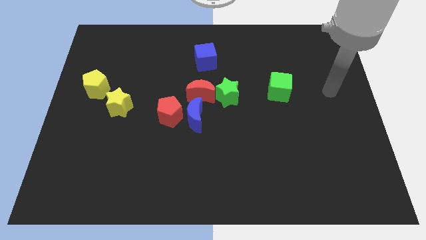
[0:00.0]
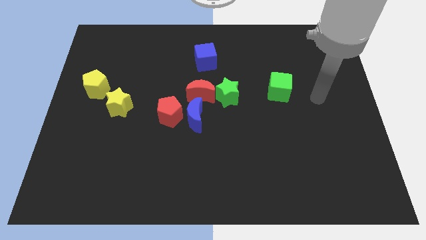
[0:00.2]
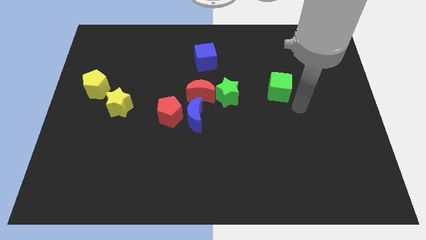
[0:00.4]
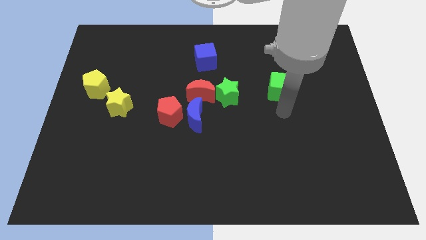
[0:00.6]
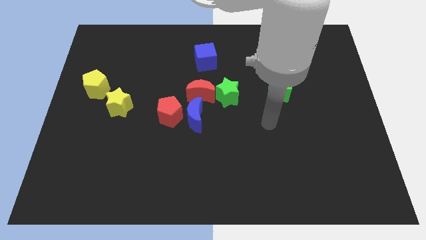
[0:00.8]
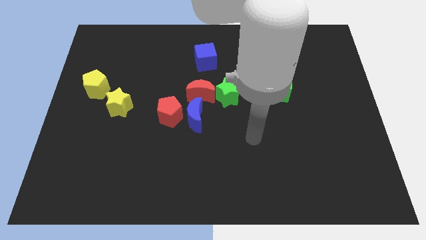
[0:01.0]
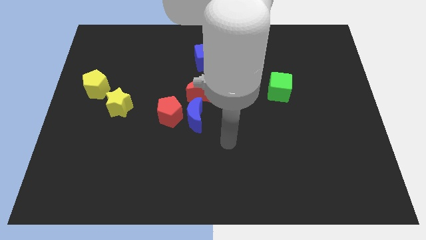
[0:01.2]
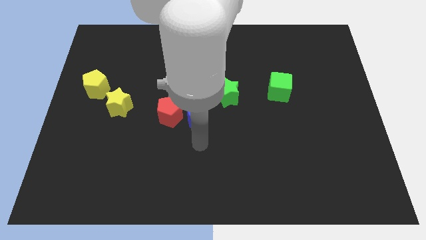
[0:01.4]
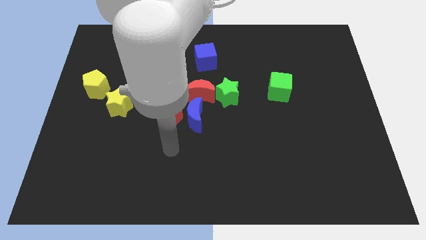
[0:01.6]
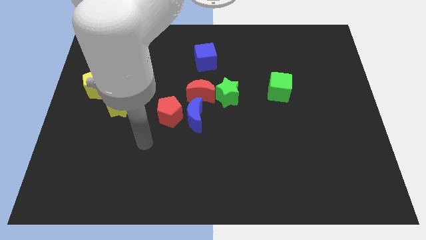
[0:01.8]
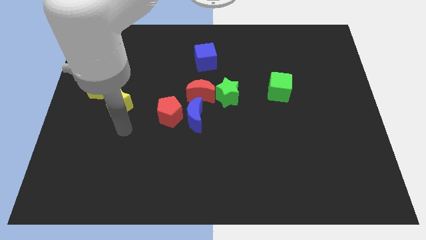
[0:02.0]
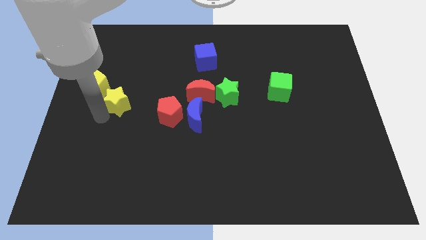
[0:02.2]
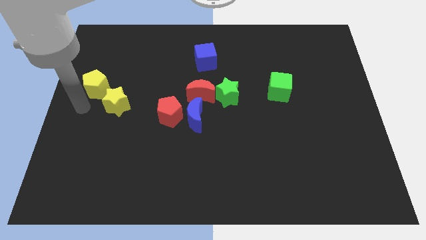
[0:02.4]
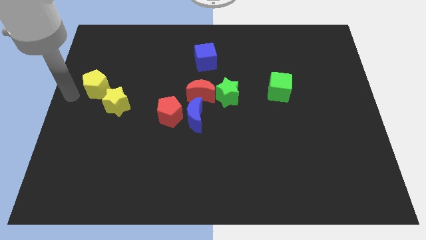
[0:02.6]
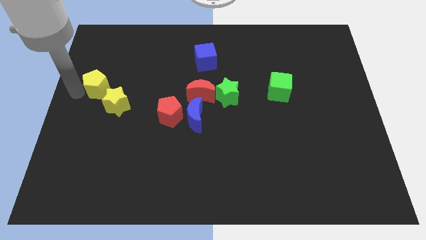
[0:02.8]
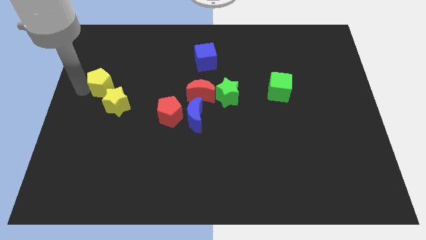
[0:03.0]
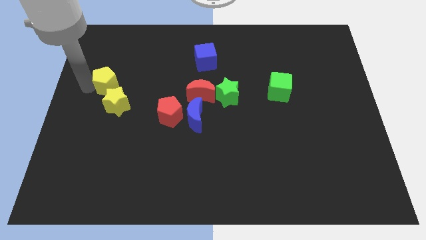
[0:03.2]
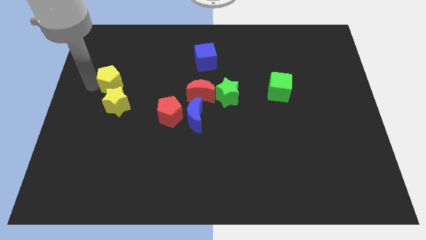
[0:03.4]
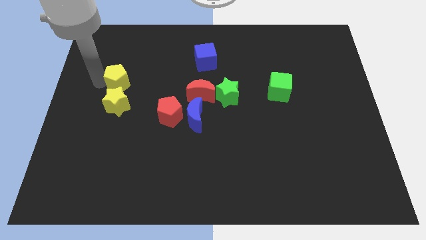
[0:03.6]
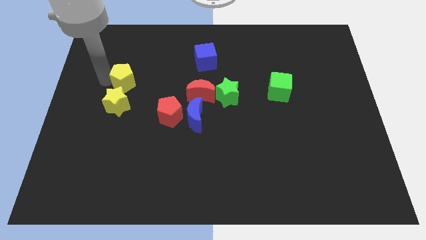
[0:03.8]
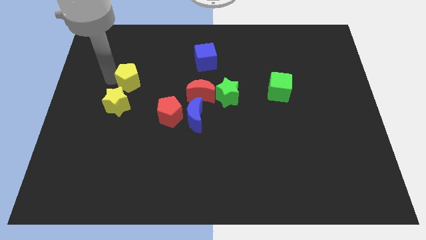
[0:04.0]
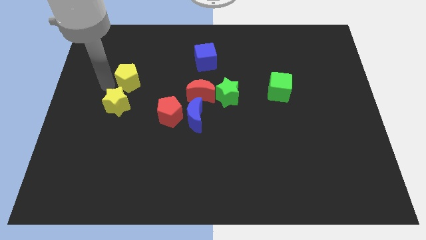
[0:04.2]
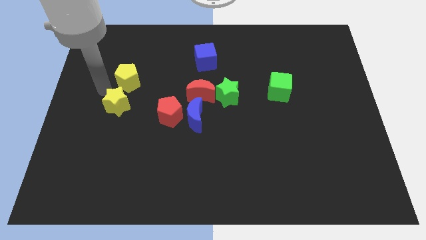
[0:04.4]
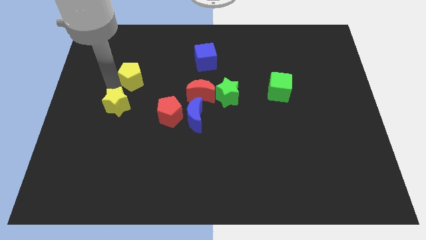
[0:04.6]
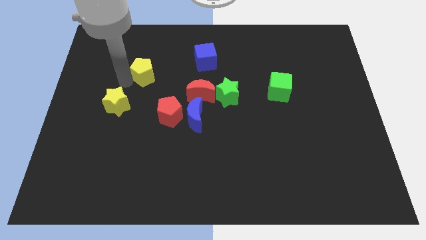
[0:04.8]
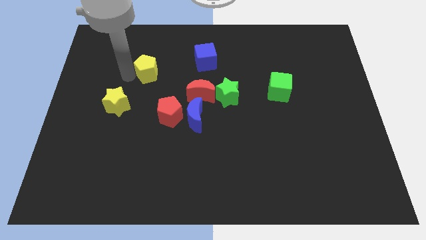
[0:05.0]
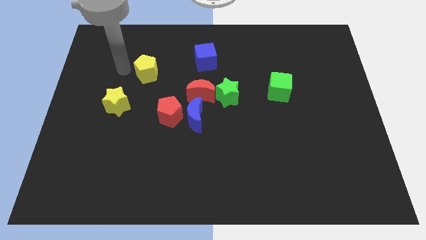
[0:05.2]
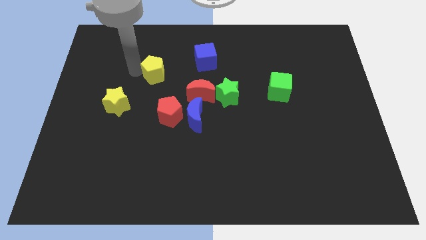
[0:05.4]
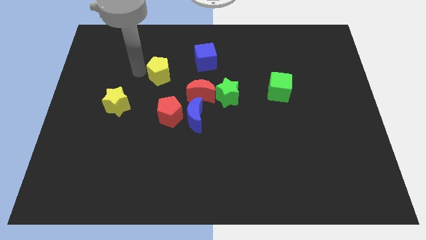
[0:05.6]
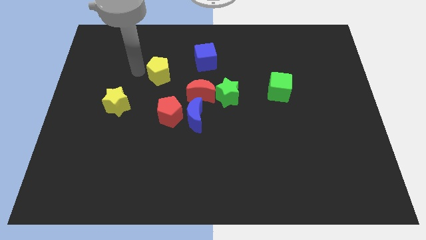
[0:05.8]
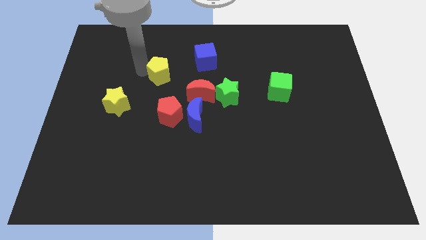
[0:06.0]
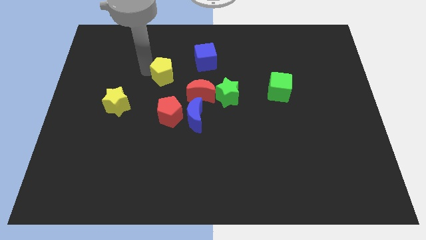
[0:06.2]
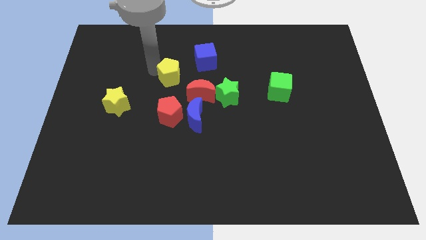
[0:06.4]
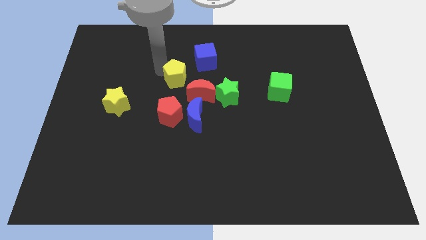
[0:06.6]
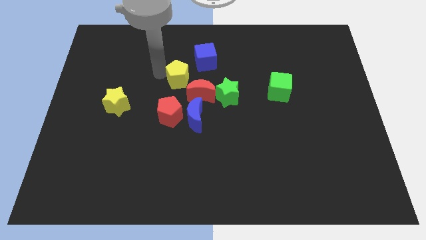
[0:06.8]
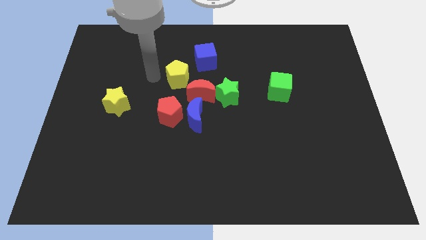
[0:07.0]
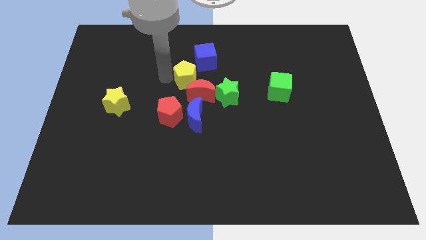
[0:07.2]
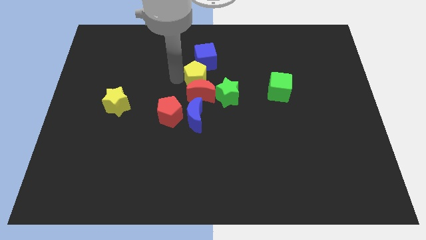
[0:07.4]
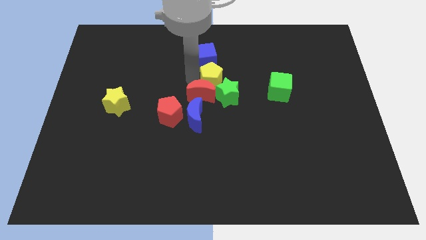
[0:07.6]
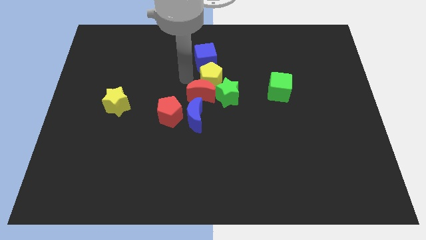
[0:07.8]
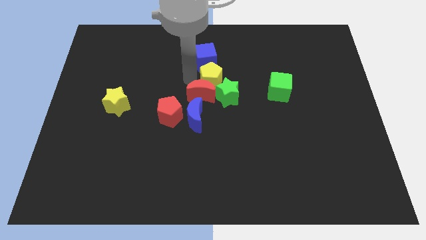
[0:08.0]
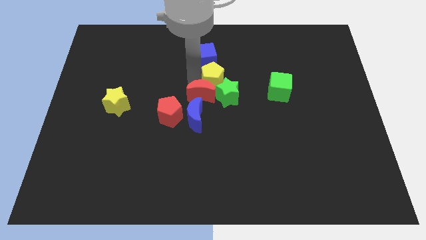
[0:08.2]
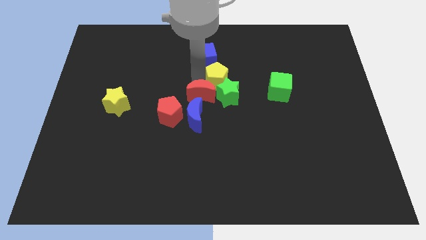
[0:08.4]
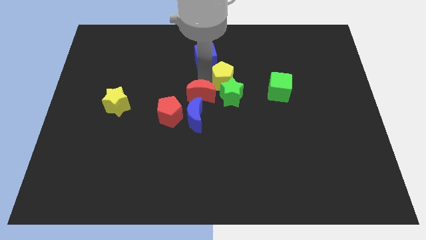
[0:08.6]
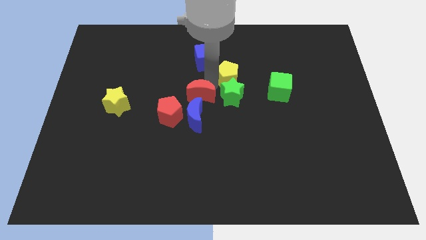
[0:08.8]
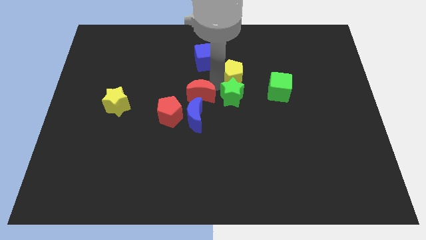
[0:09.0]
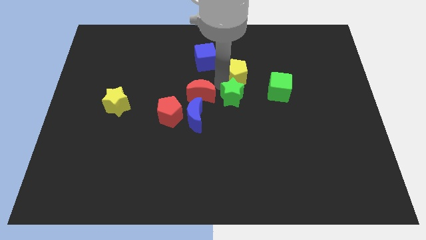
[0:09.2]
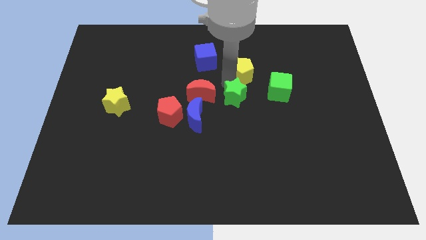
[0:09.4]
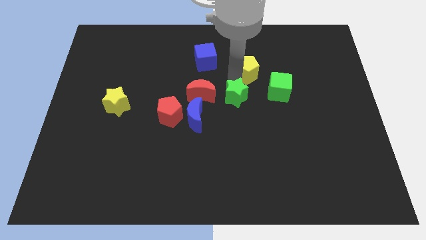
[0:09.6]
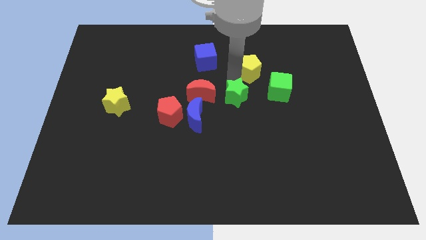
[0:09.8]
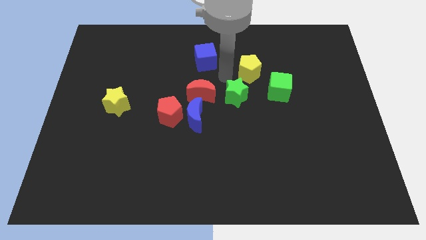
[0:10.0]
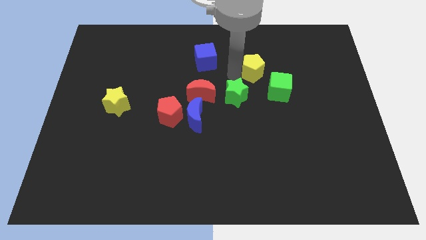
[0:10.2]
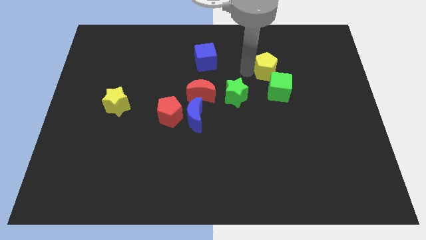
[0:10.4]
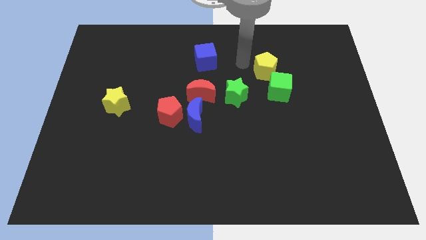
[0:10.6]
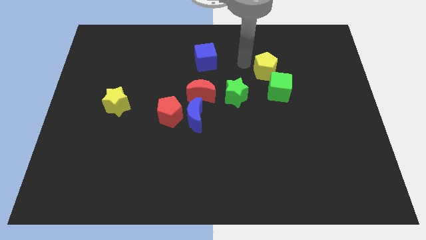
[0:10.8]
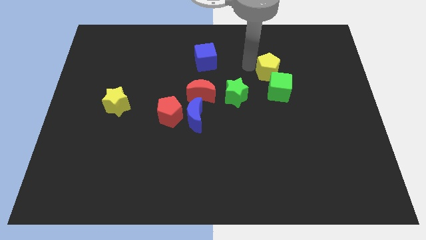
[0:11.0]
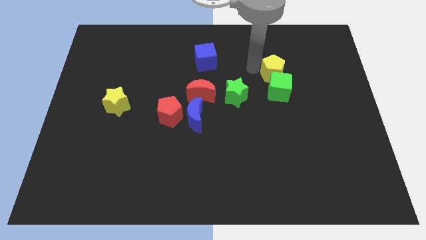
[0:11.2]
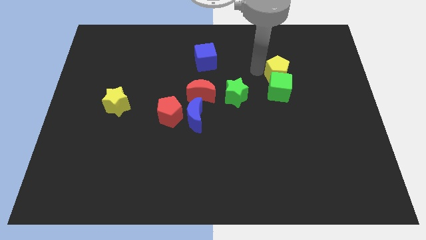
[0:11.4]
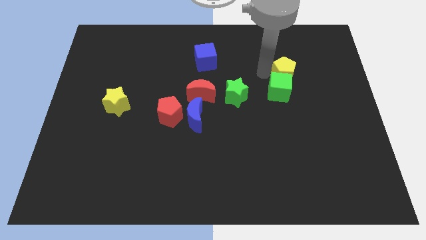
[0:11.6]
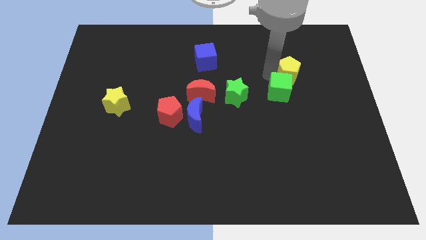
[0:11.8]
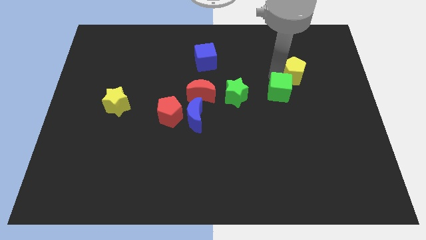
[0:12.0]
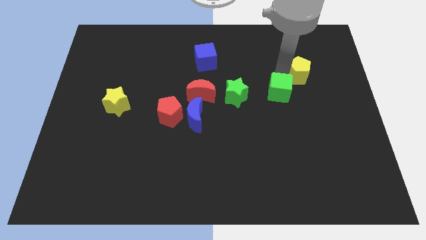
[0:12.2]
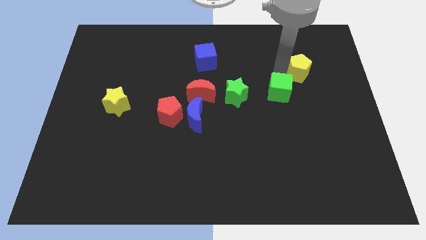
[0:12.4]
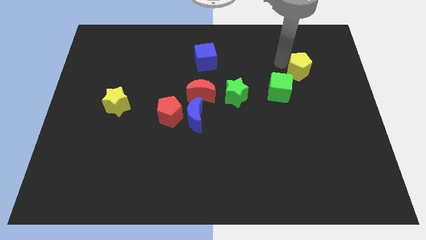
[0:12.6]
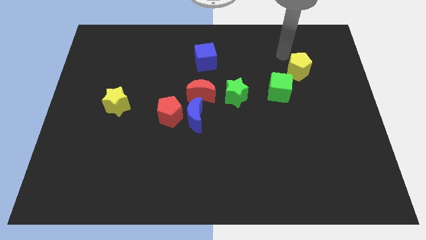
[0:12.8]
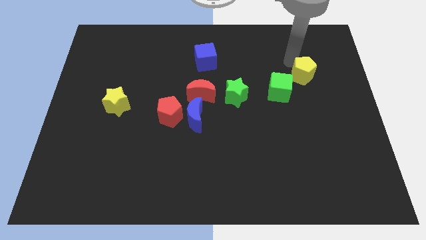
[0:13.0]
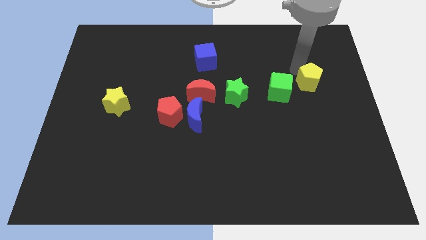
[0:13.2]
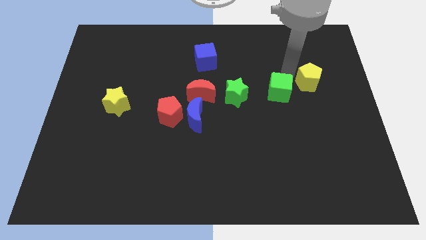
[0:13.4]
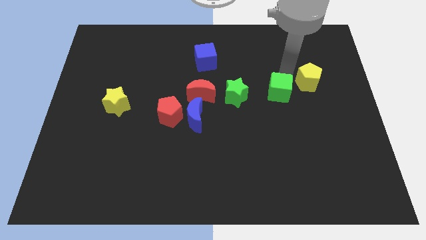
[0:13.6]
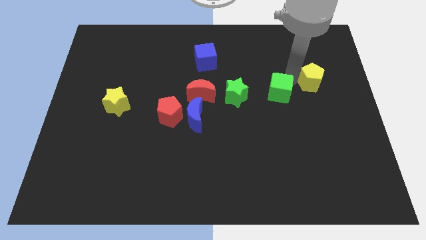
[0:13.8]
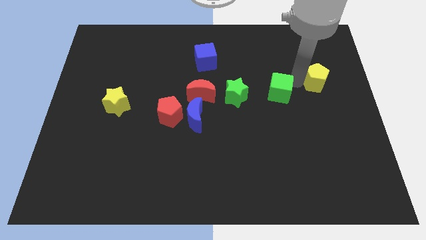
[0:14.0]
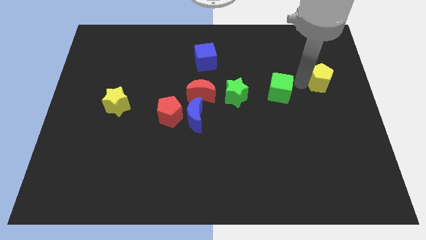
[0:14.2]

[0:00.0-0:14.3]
slide the yellow pentagon to the right side
